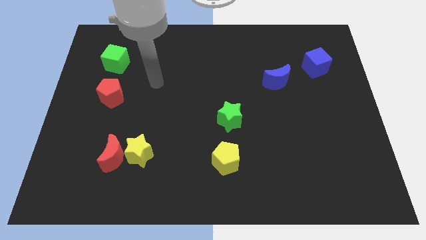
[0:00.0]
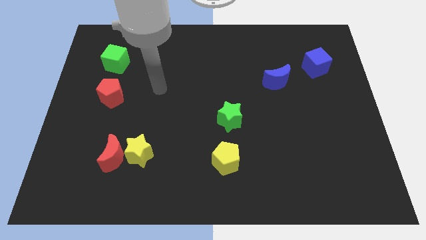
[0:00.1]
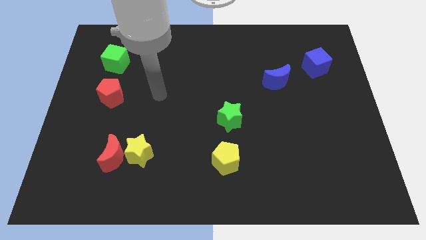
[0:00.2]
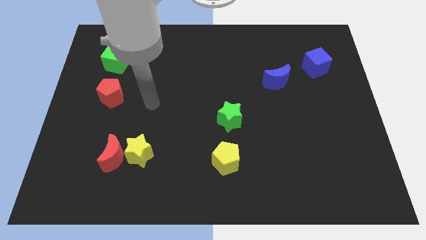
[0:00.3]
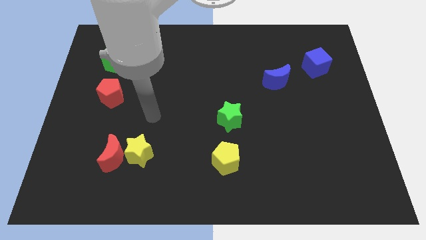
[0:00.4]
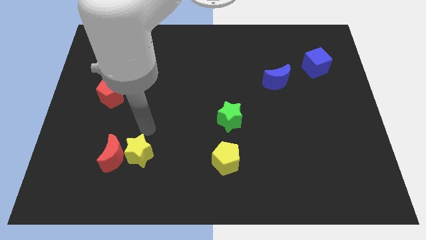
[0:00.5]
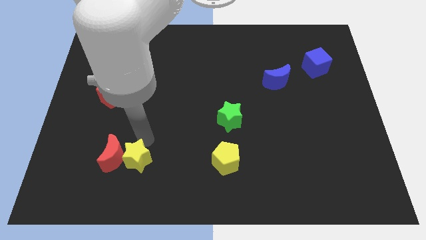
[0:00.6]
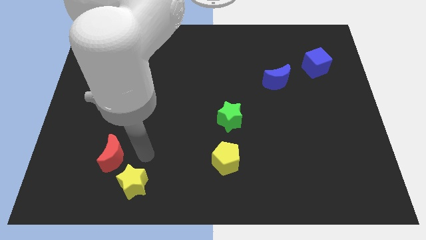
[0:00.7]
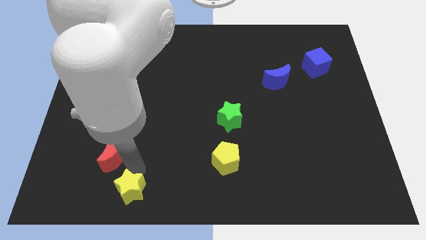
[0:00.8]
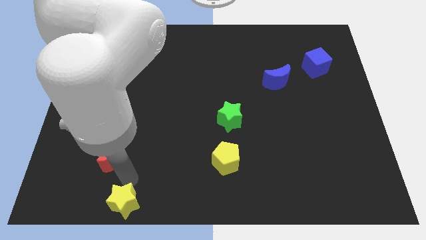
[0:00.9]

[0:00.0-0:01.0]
pull the red moon apart from the yellow star

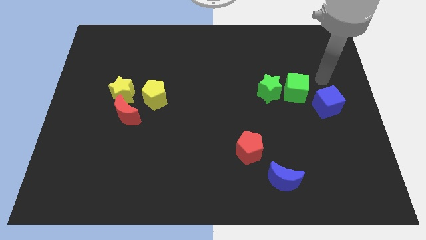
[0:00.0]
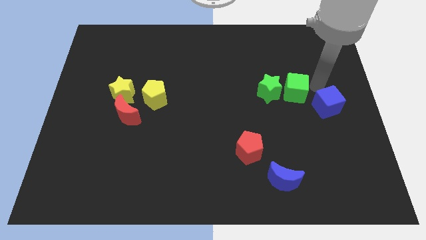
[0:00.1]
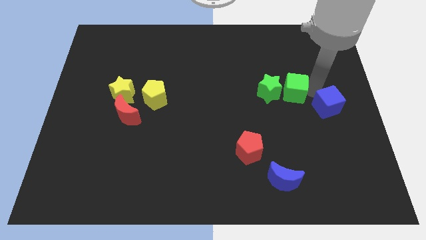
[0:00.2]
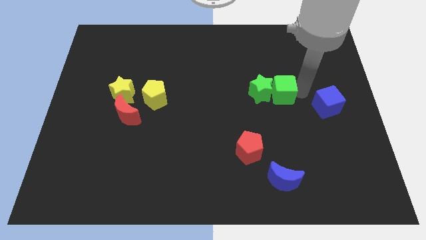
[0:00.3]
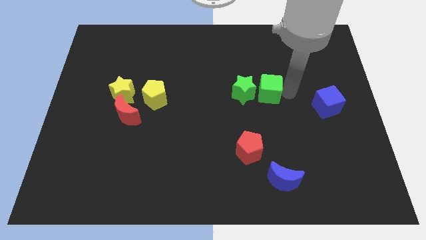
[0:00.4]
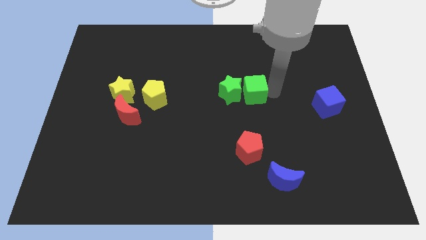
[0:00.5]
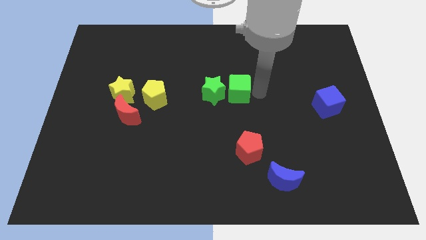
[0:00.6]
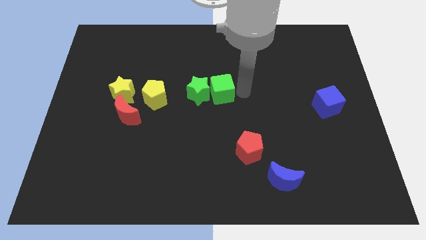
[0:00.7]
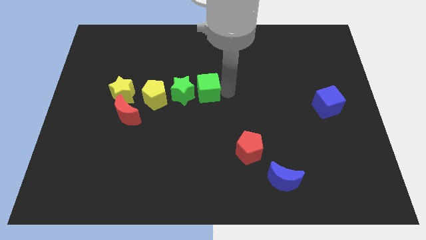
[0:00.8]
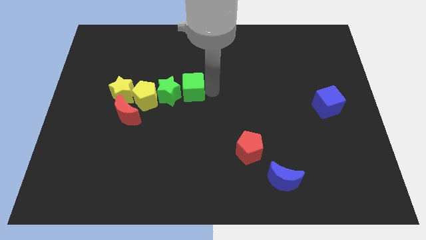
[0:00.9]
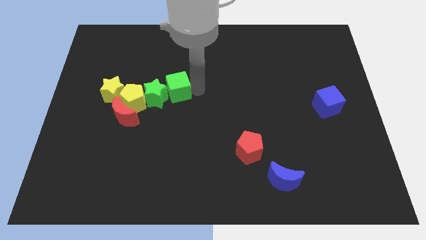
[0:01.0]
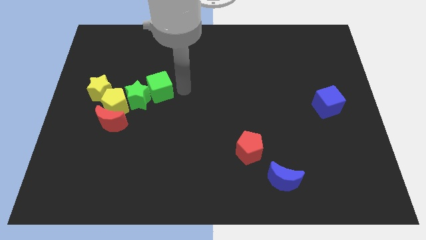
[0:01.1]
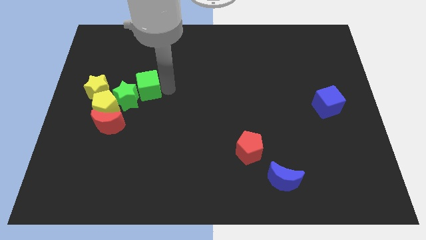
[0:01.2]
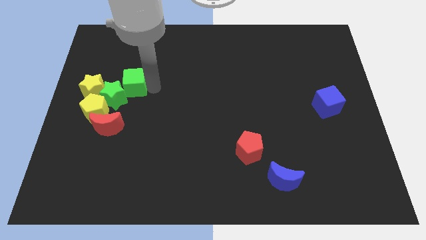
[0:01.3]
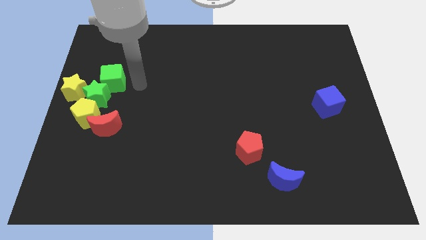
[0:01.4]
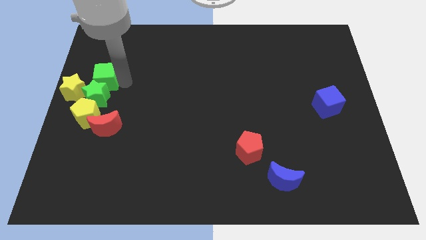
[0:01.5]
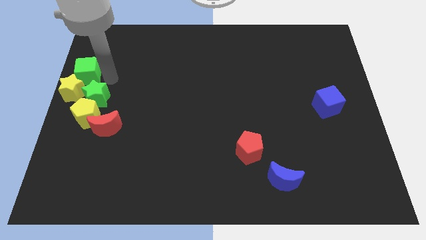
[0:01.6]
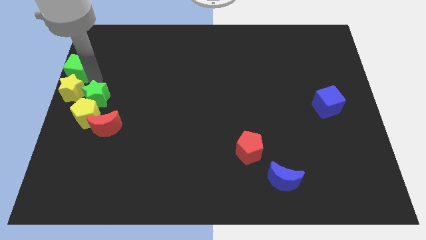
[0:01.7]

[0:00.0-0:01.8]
pull the green star apart from the green cube

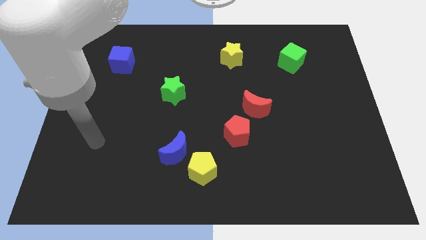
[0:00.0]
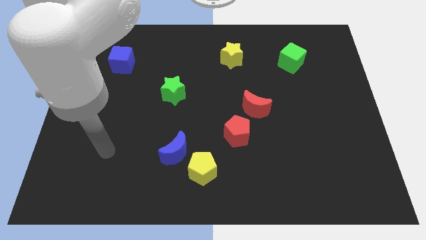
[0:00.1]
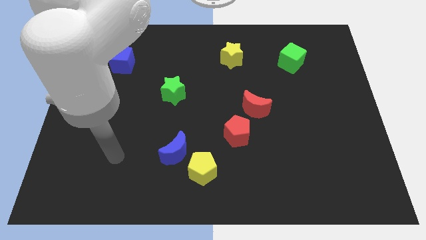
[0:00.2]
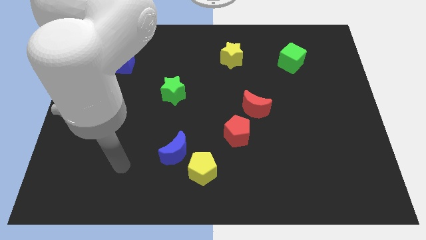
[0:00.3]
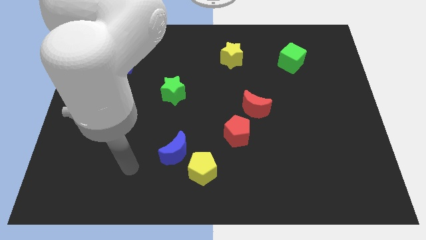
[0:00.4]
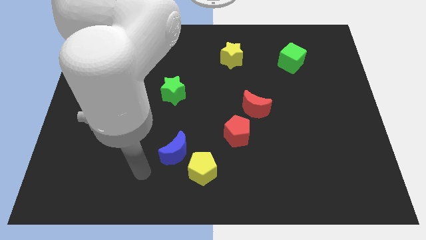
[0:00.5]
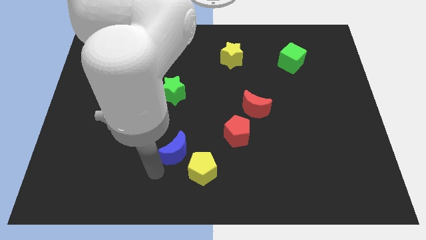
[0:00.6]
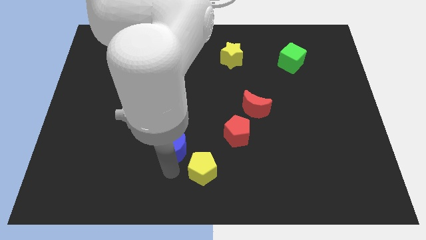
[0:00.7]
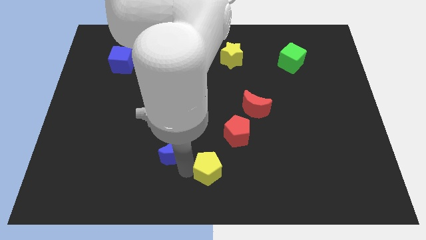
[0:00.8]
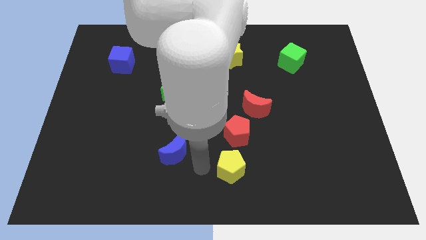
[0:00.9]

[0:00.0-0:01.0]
separate the blue moon from the yellow pentagon

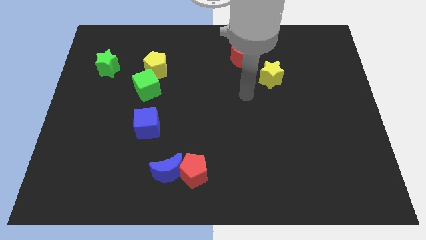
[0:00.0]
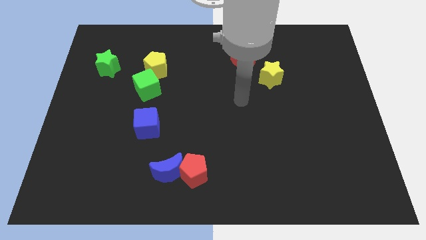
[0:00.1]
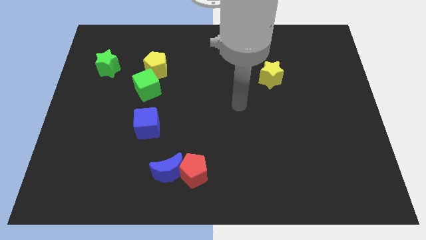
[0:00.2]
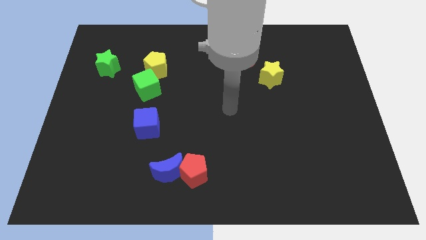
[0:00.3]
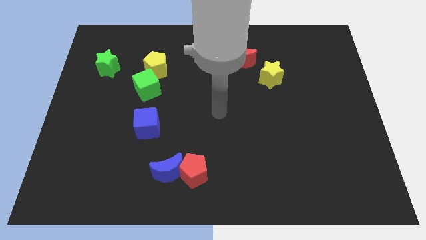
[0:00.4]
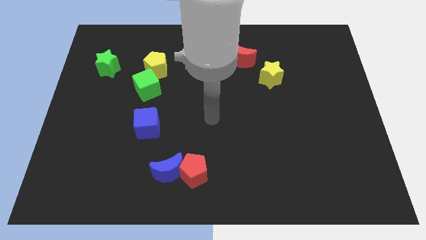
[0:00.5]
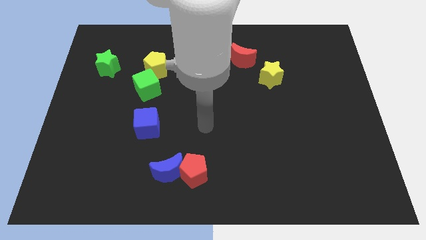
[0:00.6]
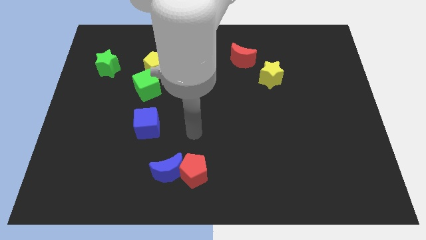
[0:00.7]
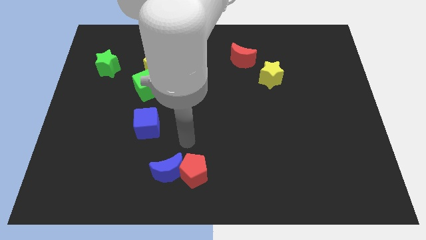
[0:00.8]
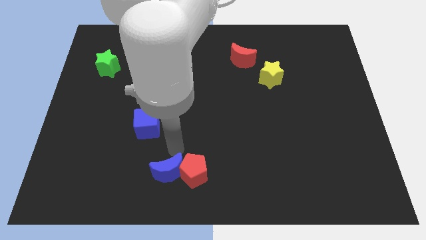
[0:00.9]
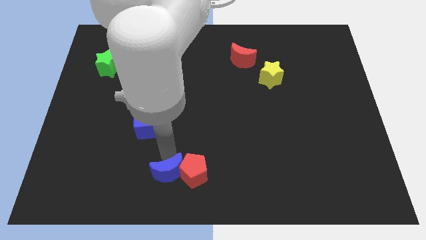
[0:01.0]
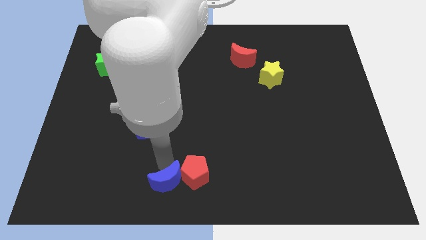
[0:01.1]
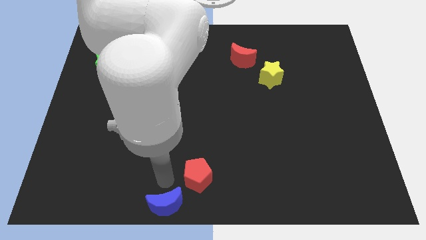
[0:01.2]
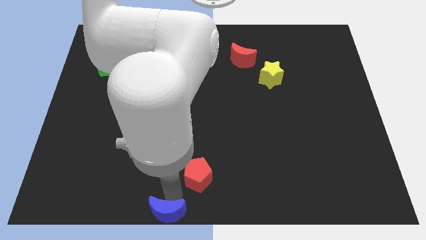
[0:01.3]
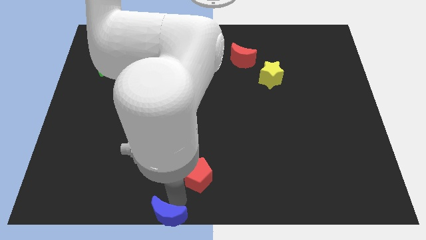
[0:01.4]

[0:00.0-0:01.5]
move the red pentagon away from the blue moon

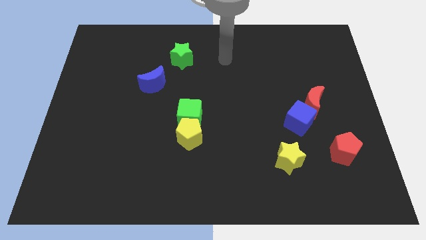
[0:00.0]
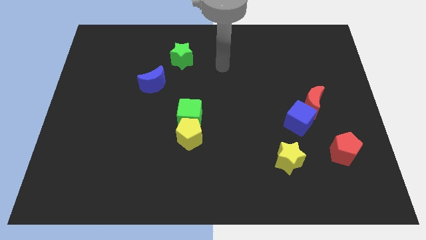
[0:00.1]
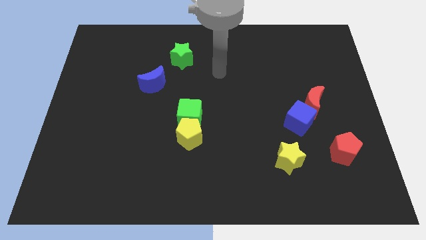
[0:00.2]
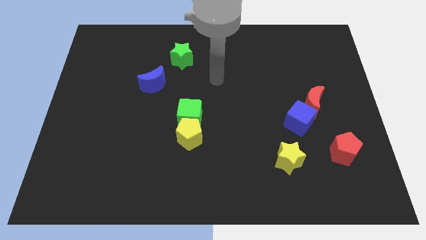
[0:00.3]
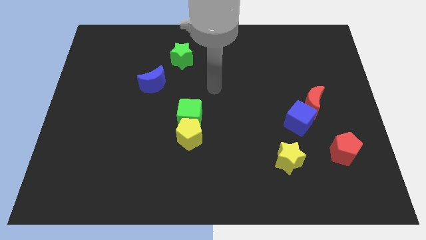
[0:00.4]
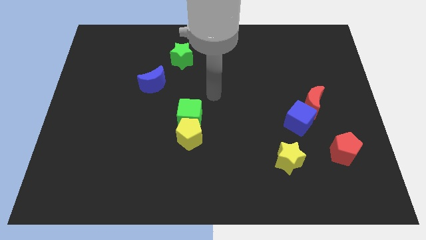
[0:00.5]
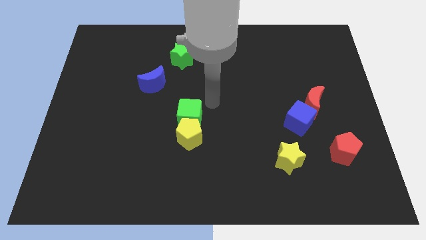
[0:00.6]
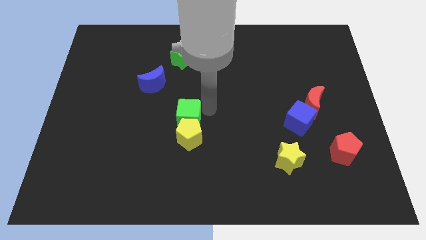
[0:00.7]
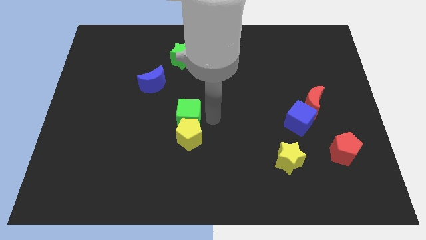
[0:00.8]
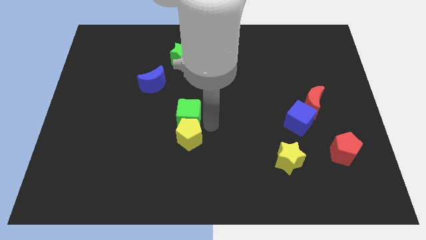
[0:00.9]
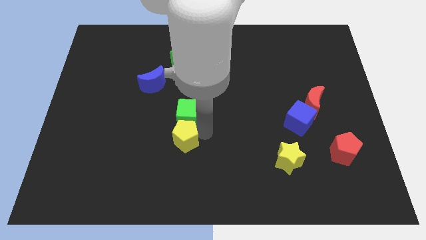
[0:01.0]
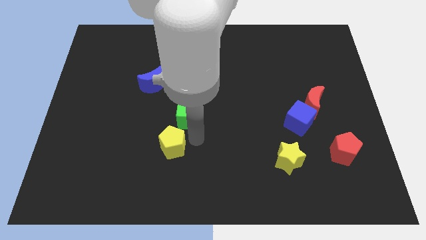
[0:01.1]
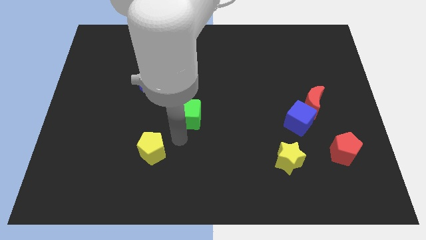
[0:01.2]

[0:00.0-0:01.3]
pull the green cube apart from the yellow pentagon

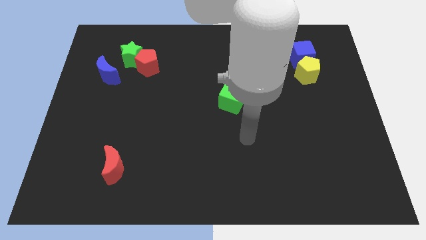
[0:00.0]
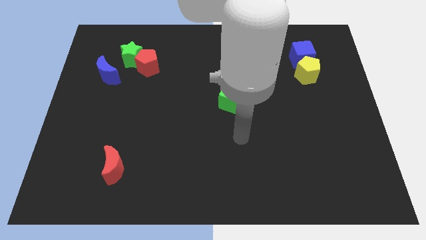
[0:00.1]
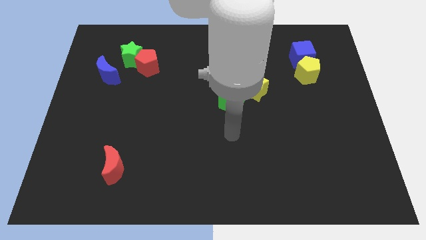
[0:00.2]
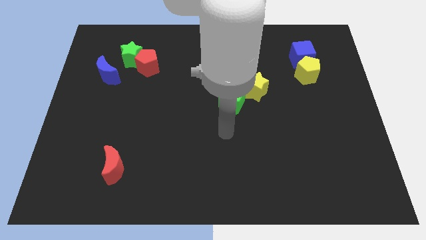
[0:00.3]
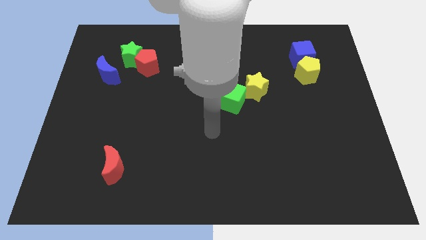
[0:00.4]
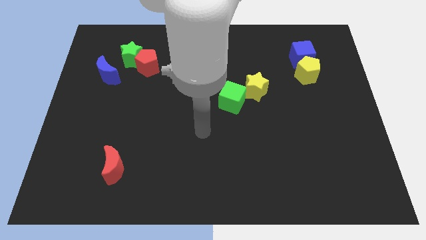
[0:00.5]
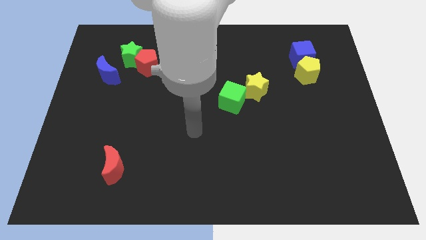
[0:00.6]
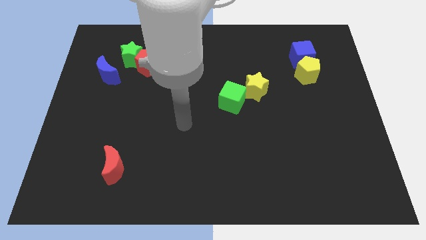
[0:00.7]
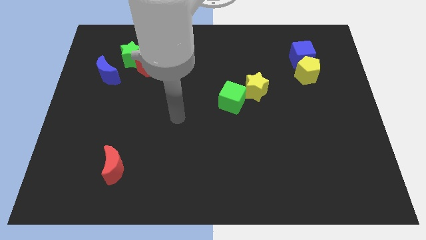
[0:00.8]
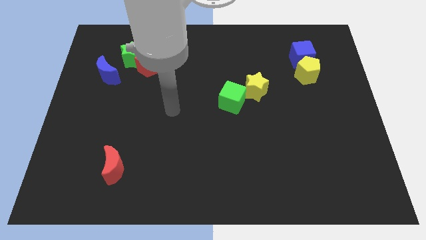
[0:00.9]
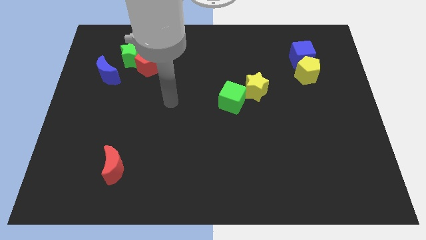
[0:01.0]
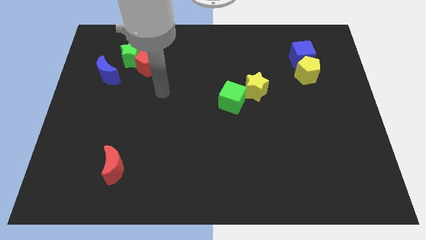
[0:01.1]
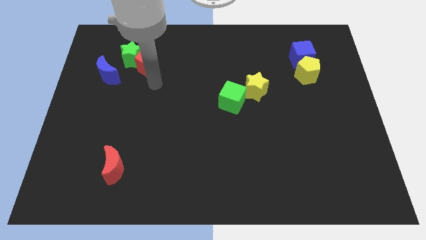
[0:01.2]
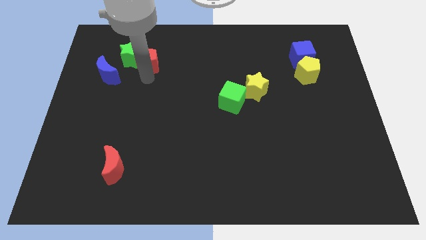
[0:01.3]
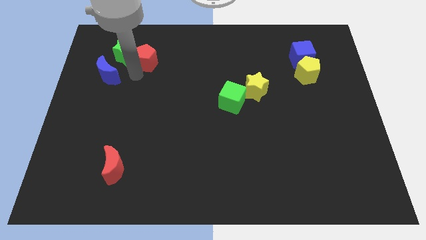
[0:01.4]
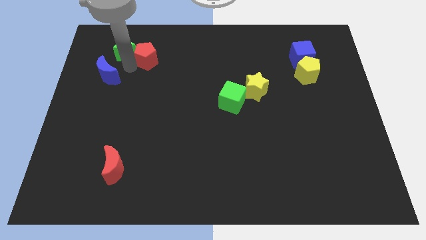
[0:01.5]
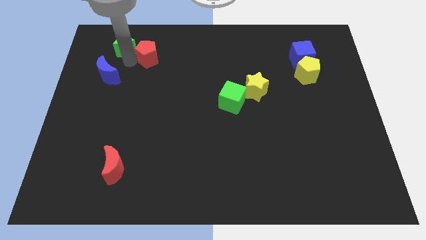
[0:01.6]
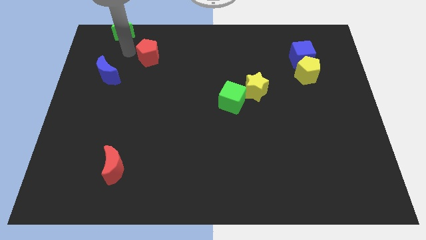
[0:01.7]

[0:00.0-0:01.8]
separate the red pentagon from the green star

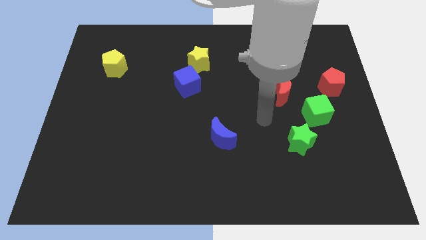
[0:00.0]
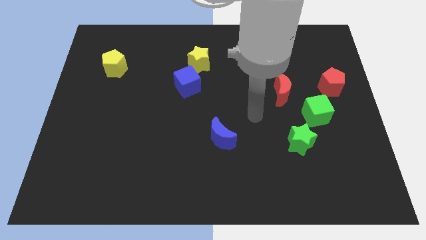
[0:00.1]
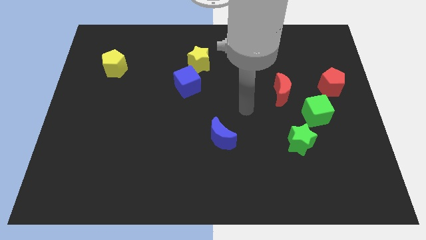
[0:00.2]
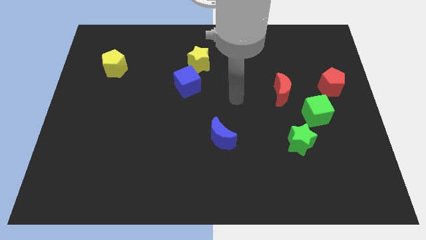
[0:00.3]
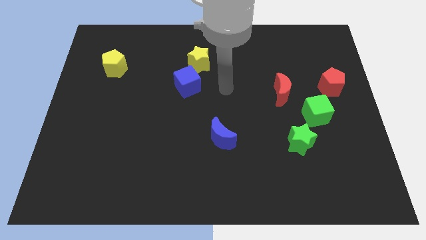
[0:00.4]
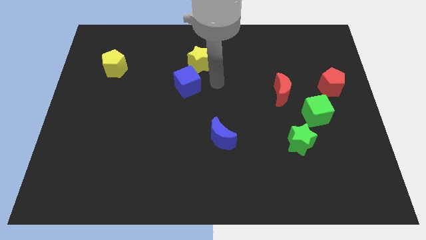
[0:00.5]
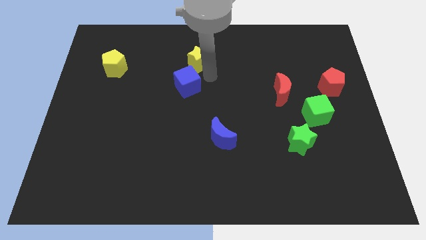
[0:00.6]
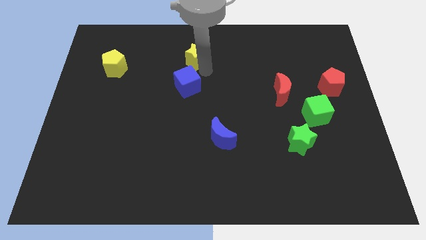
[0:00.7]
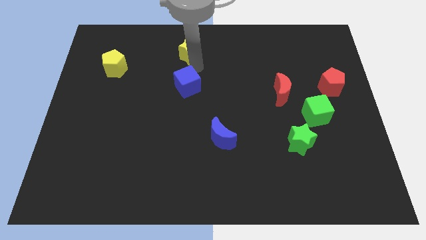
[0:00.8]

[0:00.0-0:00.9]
separate the blue cube from the yellow star
